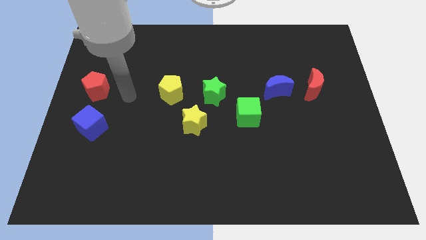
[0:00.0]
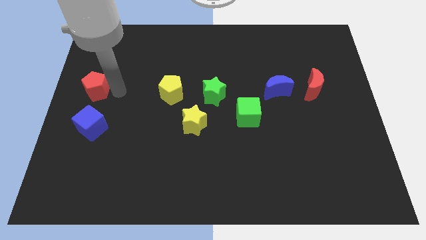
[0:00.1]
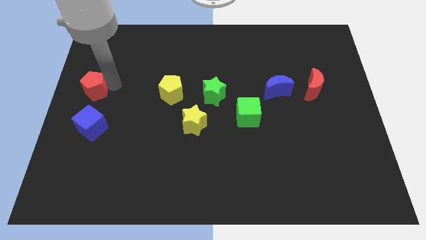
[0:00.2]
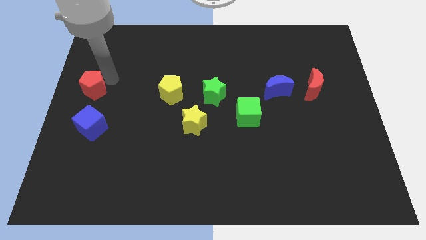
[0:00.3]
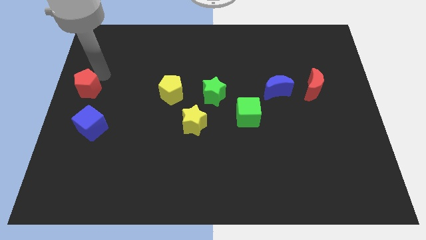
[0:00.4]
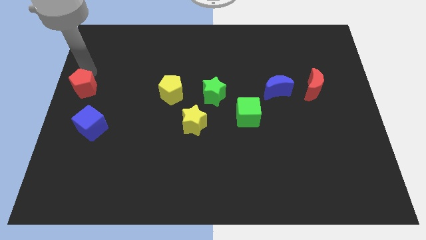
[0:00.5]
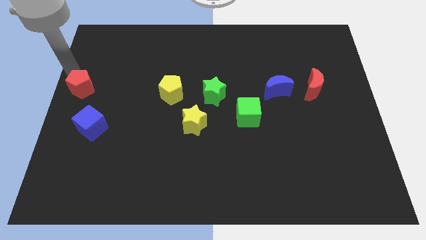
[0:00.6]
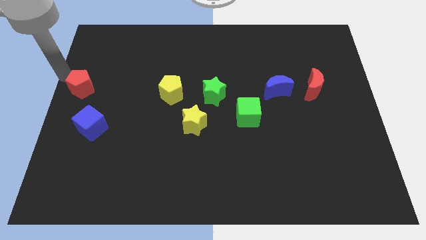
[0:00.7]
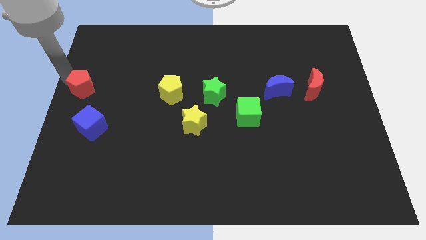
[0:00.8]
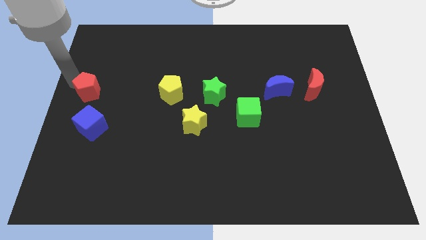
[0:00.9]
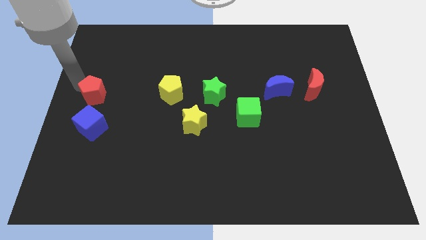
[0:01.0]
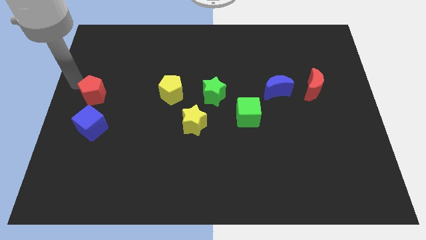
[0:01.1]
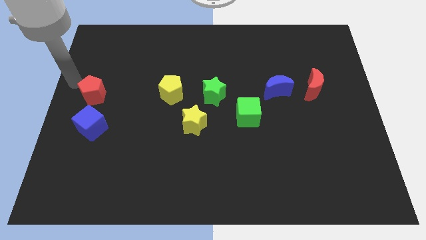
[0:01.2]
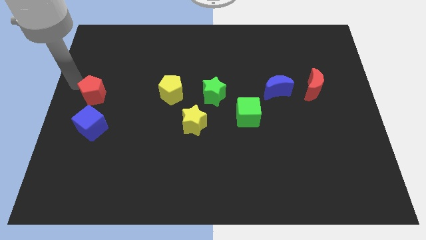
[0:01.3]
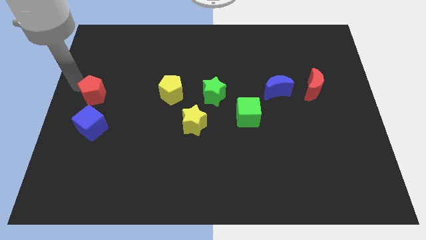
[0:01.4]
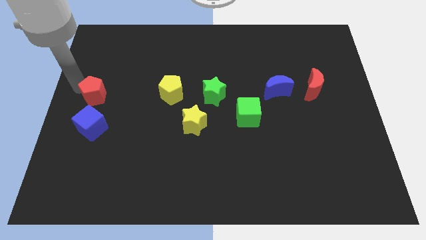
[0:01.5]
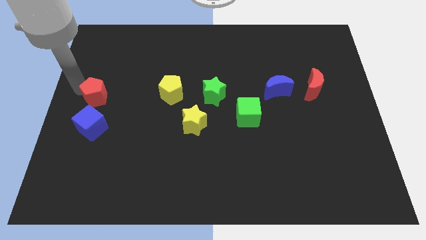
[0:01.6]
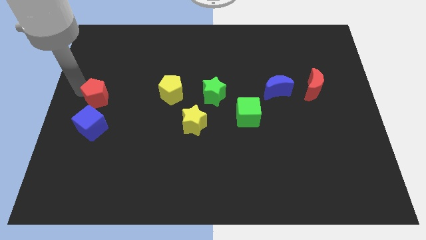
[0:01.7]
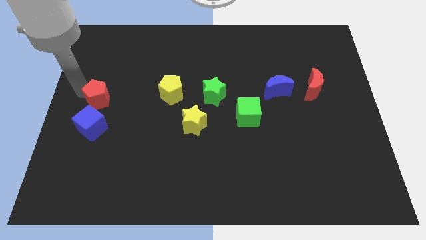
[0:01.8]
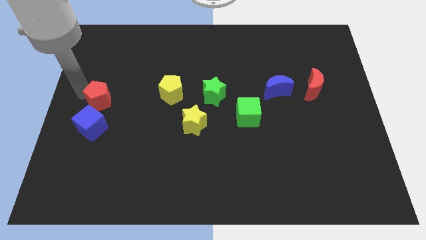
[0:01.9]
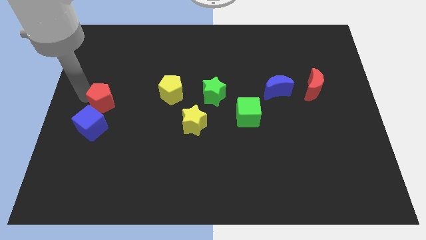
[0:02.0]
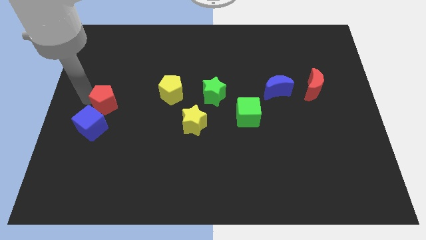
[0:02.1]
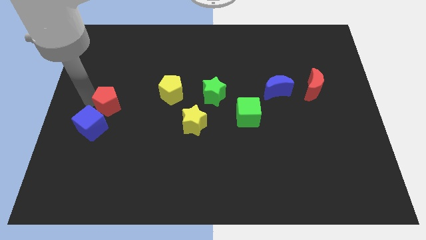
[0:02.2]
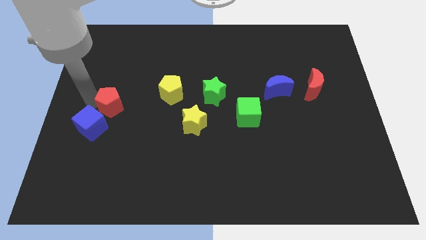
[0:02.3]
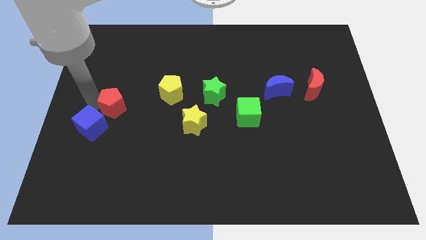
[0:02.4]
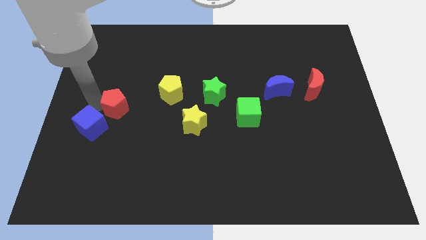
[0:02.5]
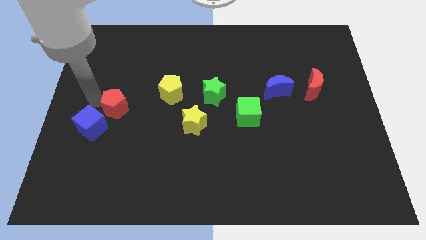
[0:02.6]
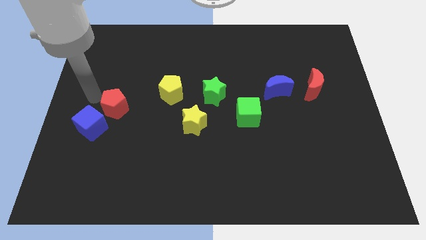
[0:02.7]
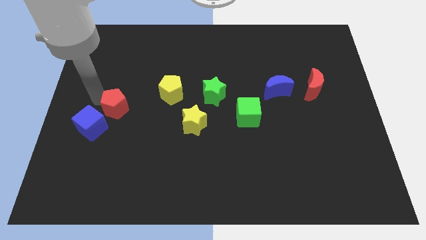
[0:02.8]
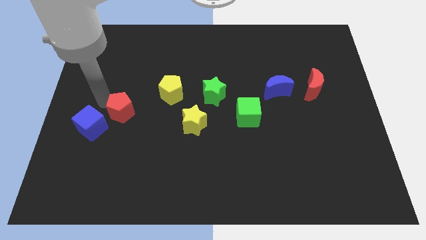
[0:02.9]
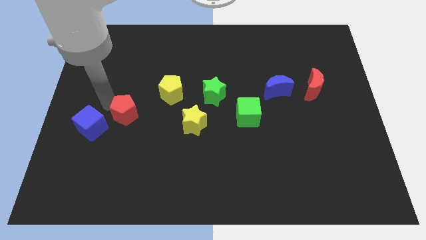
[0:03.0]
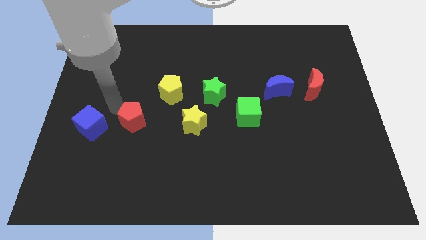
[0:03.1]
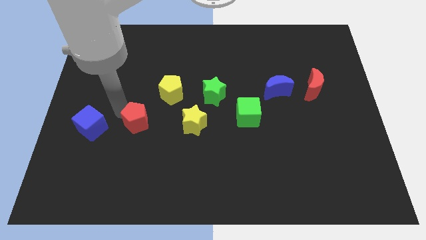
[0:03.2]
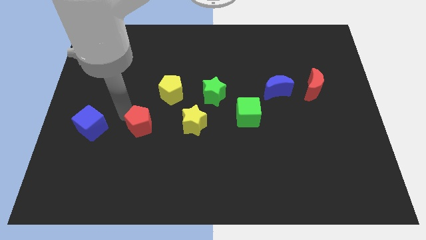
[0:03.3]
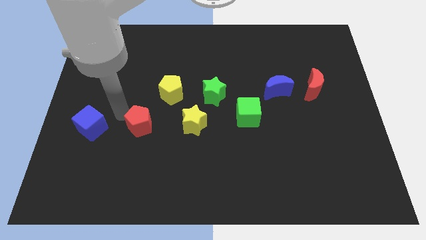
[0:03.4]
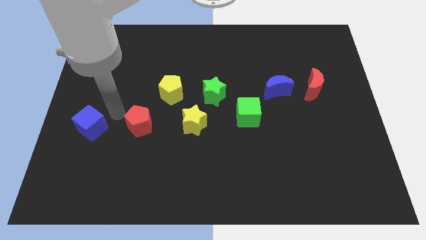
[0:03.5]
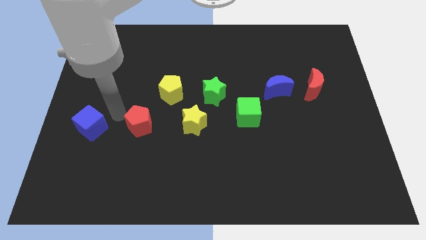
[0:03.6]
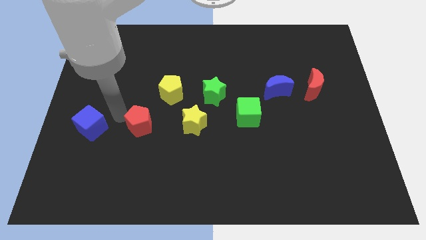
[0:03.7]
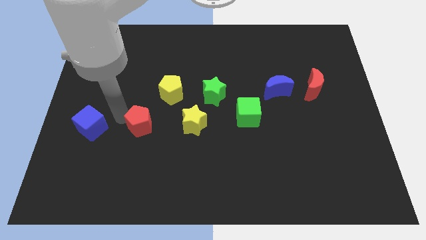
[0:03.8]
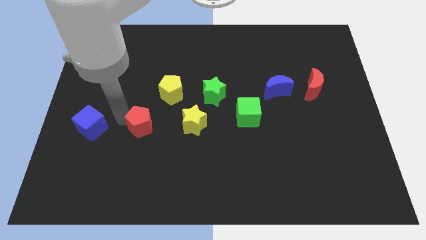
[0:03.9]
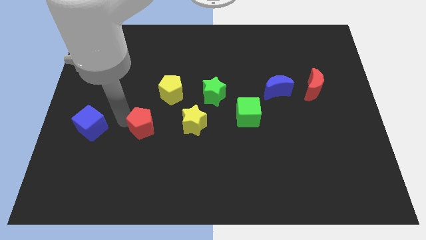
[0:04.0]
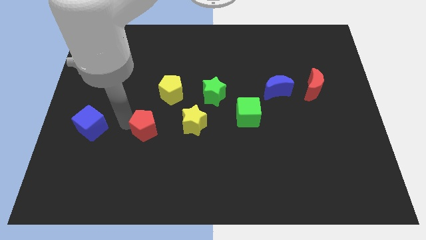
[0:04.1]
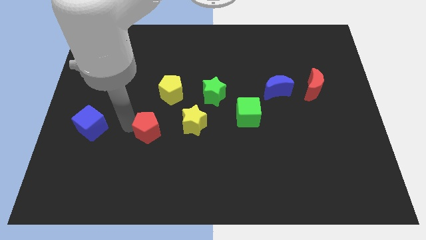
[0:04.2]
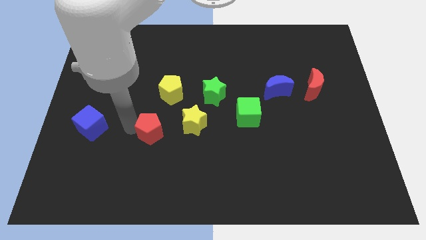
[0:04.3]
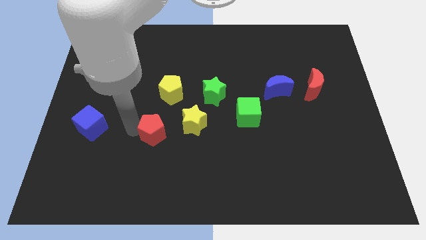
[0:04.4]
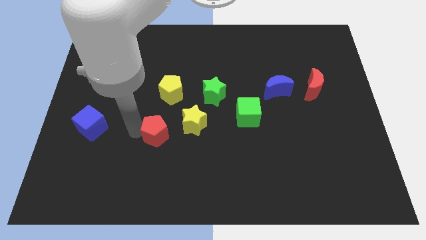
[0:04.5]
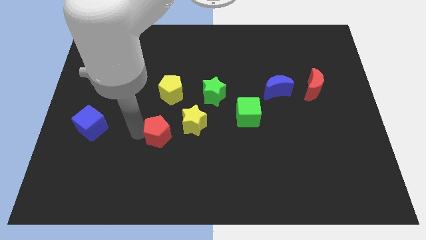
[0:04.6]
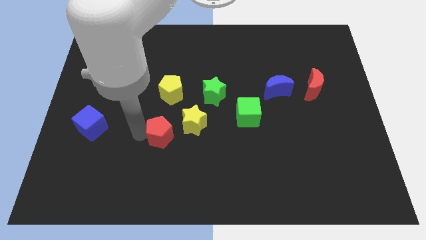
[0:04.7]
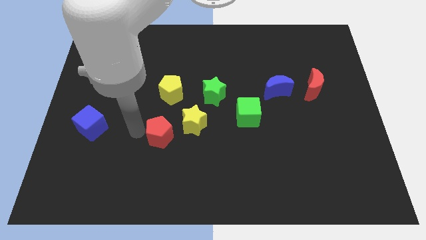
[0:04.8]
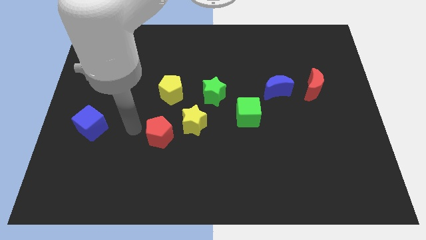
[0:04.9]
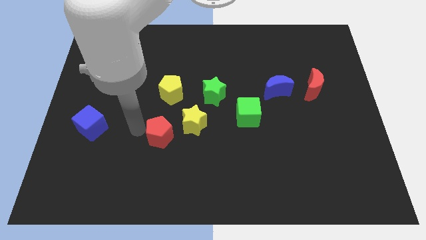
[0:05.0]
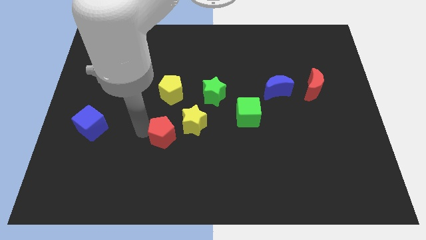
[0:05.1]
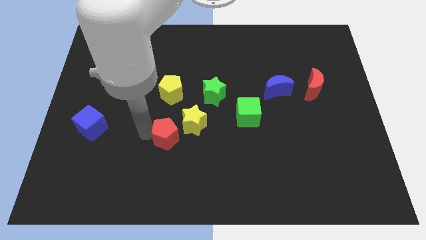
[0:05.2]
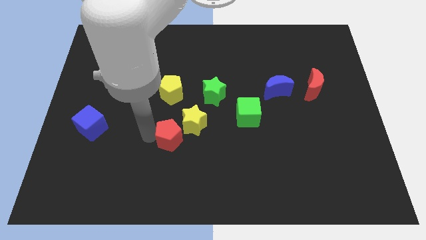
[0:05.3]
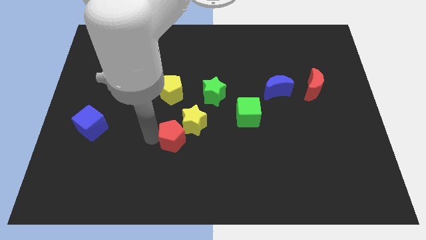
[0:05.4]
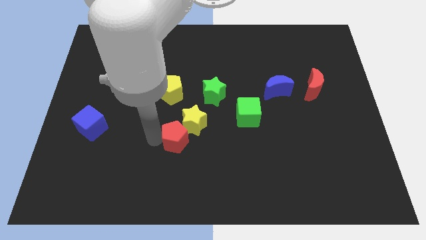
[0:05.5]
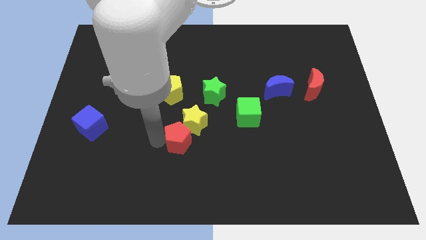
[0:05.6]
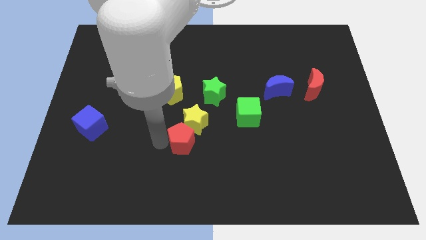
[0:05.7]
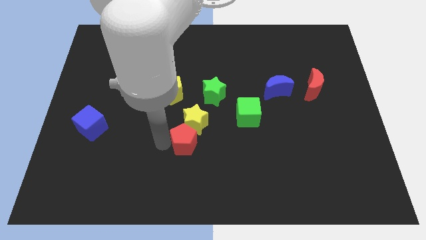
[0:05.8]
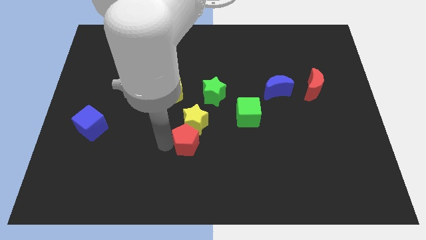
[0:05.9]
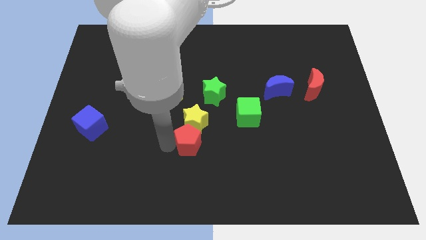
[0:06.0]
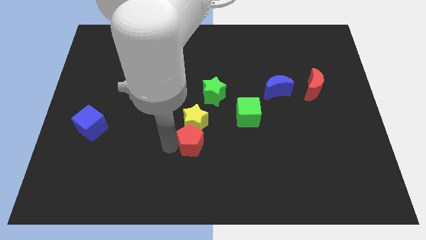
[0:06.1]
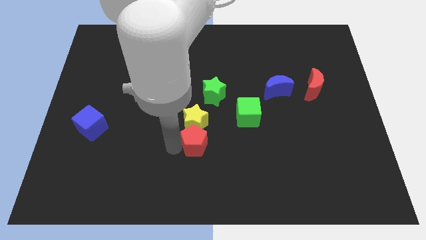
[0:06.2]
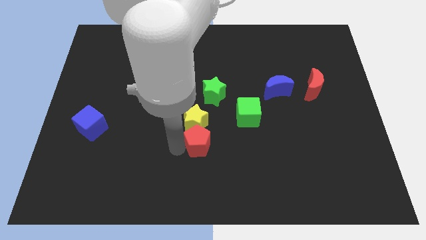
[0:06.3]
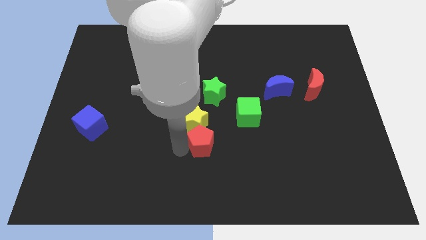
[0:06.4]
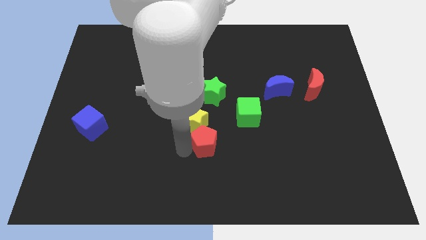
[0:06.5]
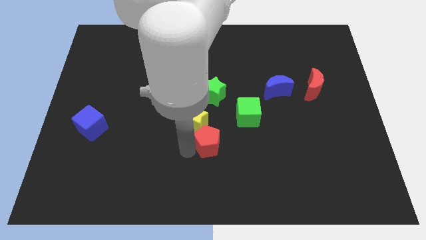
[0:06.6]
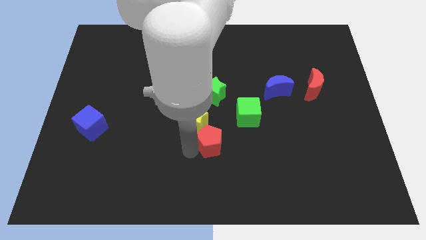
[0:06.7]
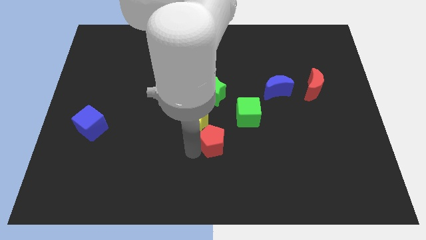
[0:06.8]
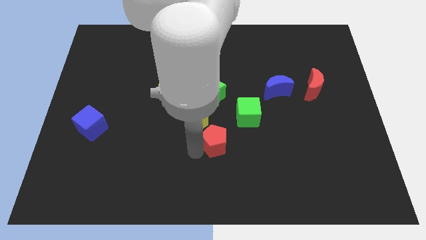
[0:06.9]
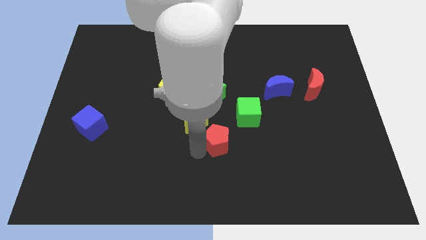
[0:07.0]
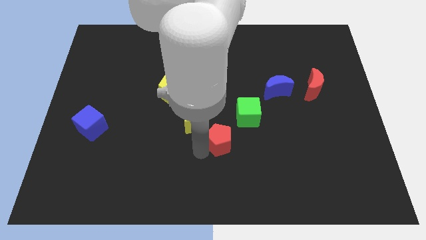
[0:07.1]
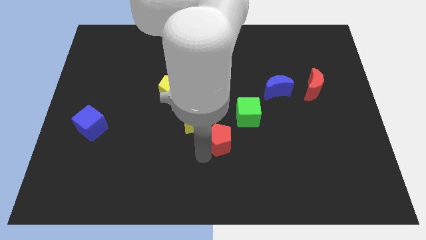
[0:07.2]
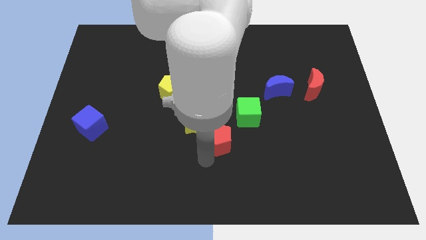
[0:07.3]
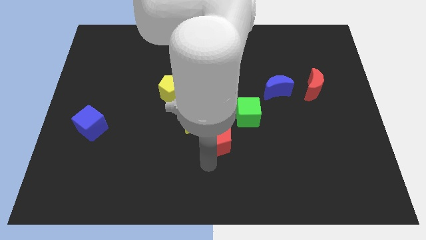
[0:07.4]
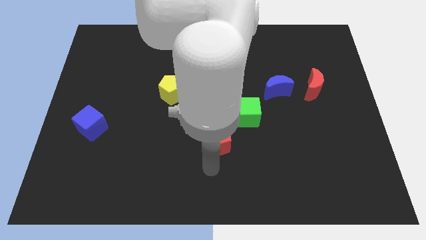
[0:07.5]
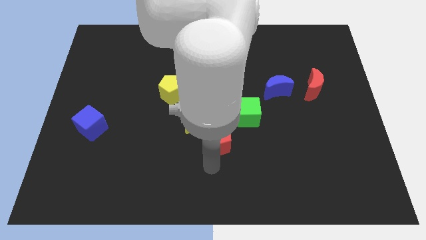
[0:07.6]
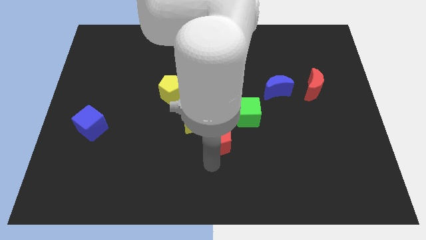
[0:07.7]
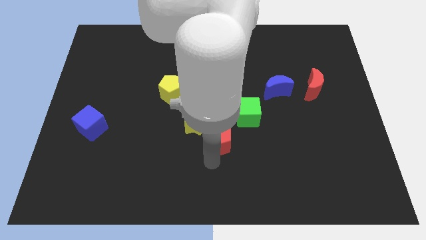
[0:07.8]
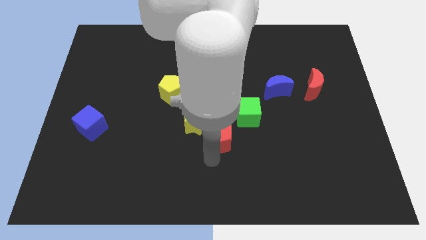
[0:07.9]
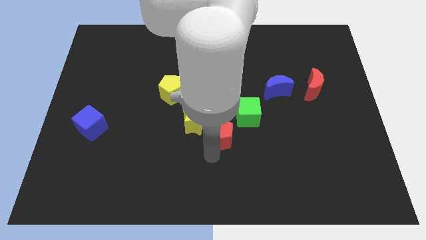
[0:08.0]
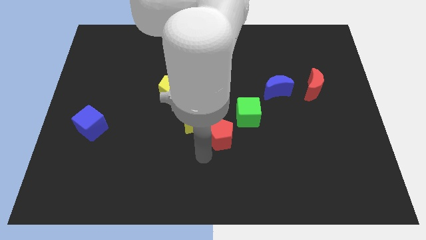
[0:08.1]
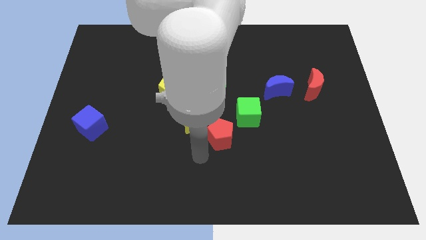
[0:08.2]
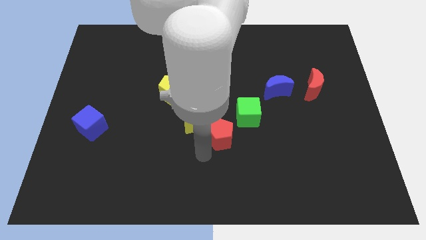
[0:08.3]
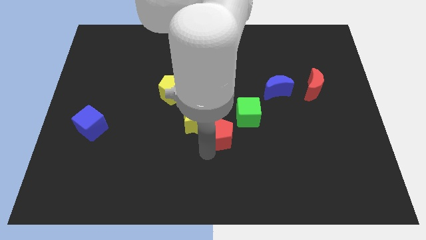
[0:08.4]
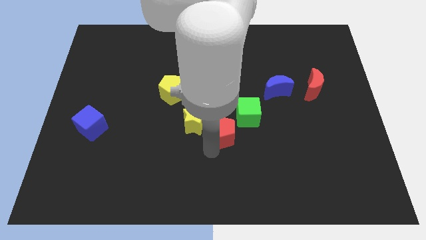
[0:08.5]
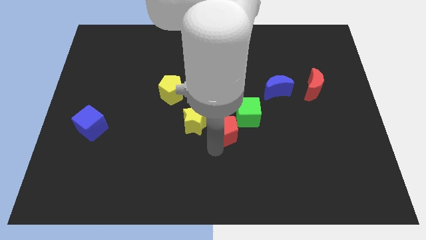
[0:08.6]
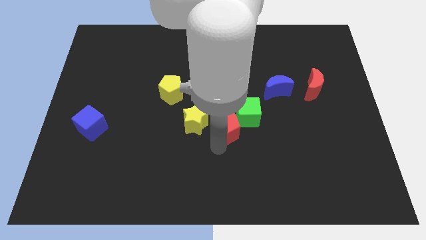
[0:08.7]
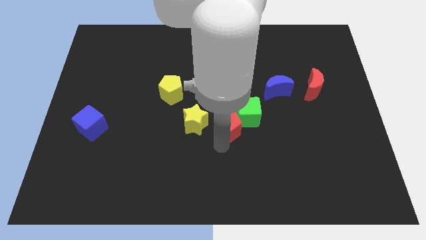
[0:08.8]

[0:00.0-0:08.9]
put the red pentagon next to the green cube
